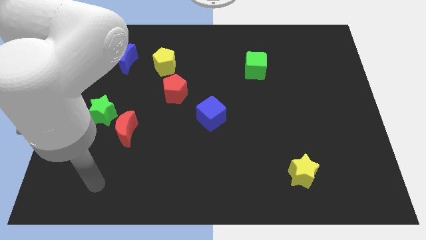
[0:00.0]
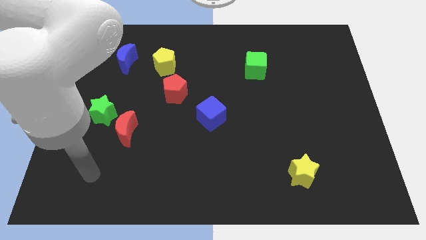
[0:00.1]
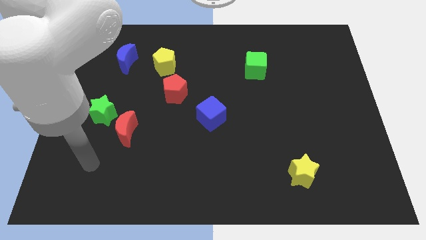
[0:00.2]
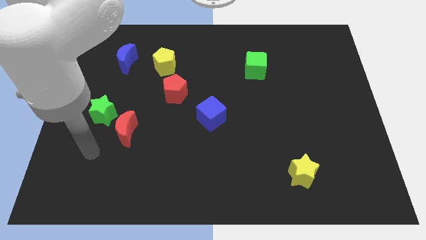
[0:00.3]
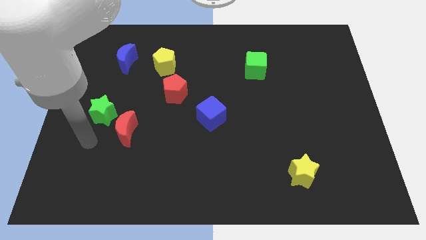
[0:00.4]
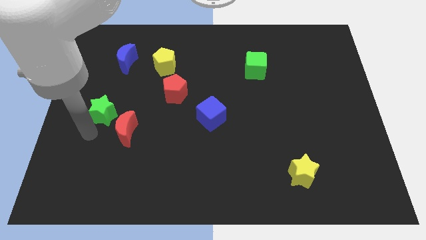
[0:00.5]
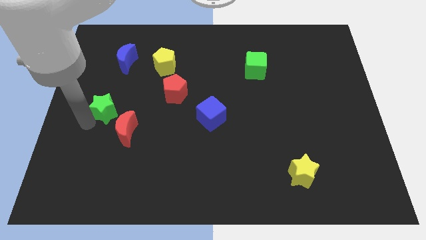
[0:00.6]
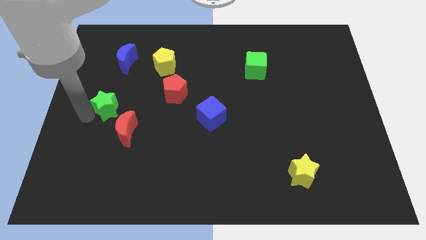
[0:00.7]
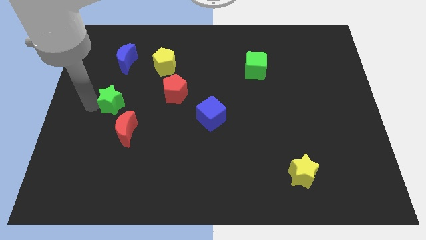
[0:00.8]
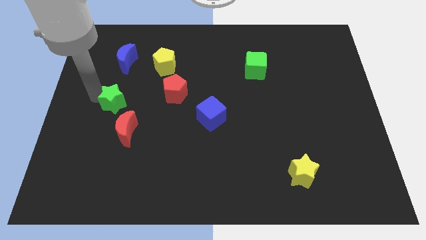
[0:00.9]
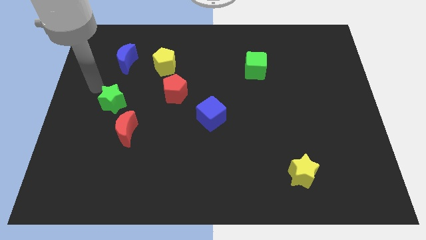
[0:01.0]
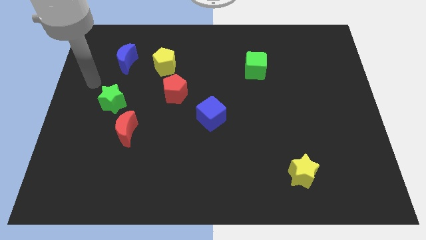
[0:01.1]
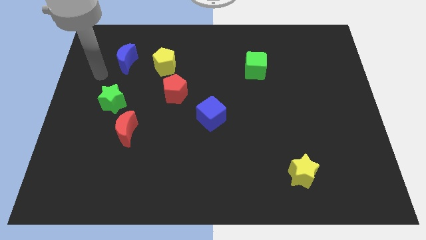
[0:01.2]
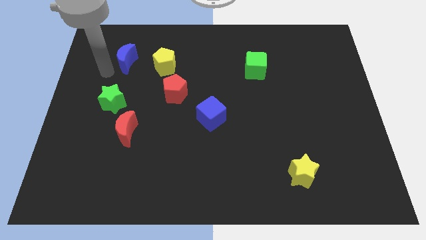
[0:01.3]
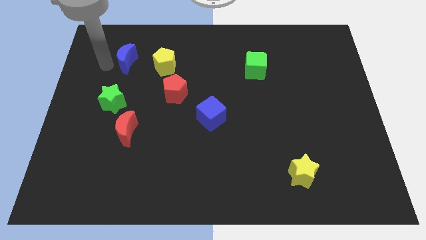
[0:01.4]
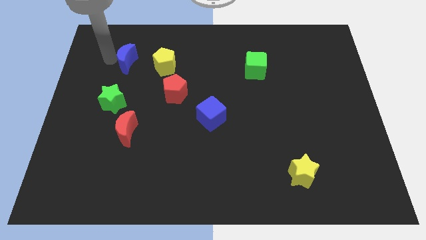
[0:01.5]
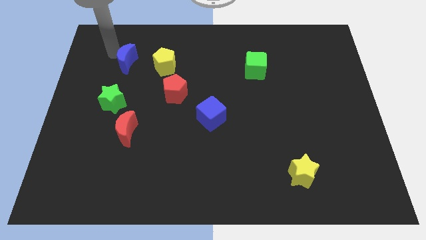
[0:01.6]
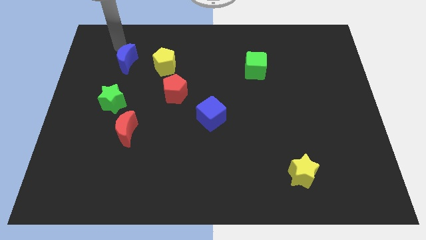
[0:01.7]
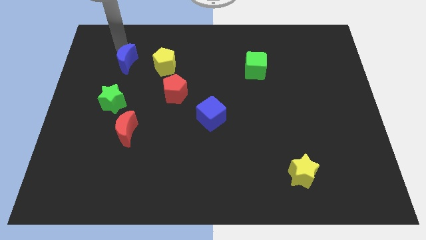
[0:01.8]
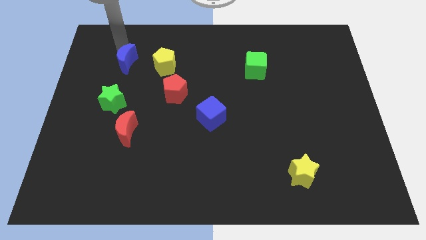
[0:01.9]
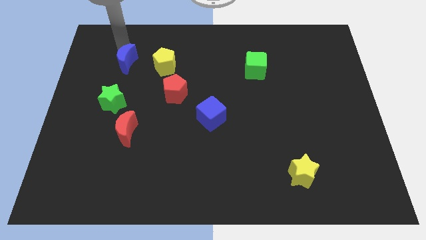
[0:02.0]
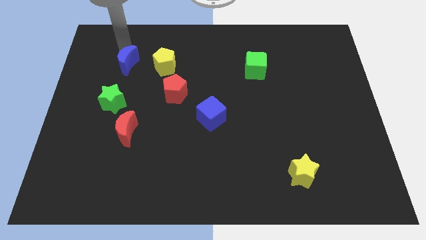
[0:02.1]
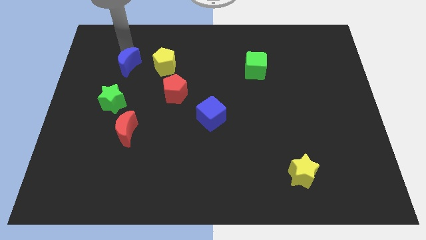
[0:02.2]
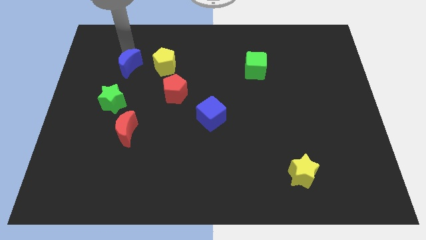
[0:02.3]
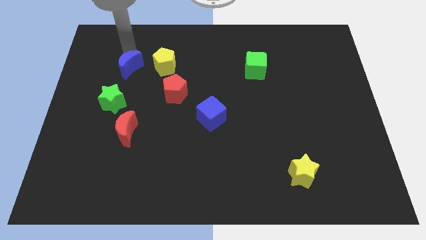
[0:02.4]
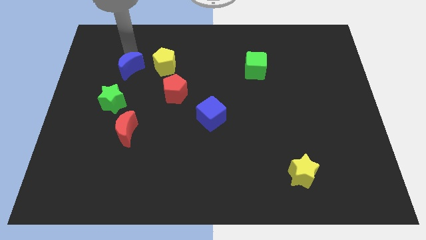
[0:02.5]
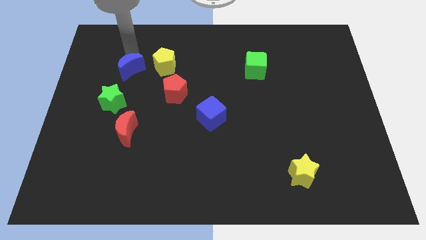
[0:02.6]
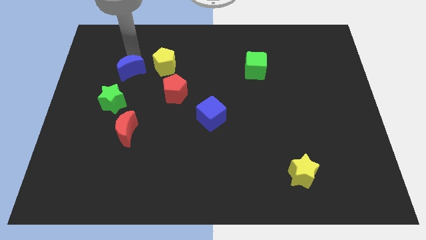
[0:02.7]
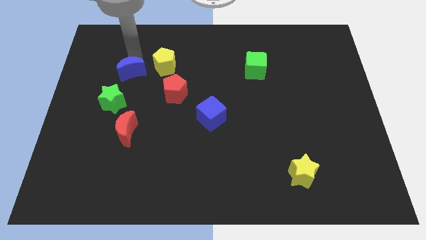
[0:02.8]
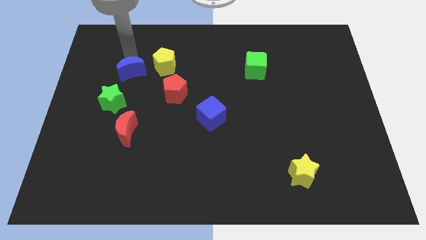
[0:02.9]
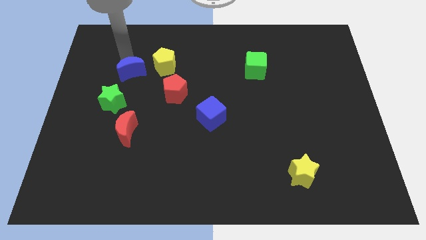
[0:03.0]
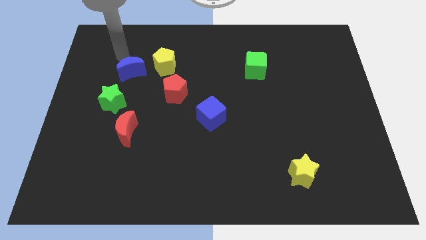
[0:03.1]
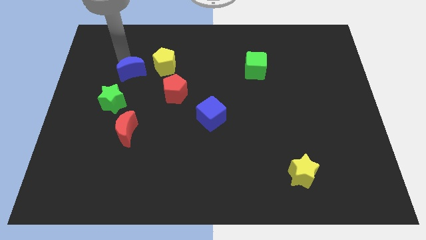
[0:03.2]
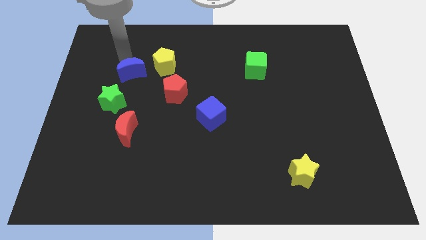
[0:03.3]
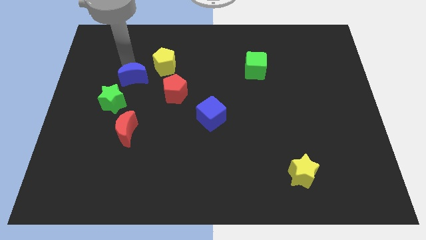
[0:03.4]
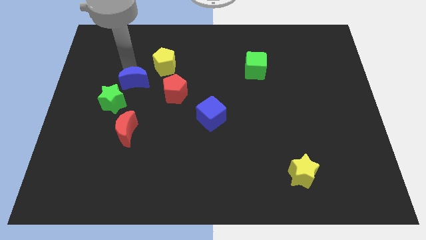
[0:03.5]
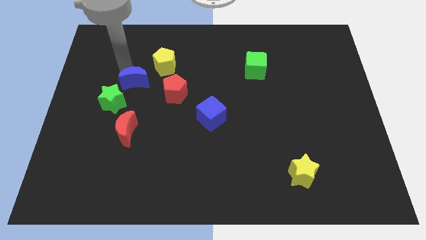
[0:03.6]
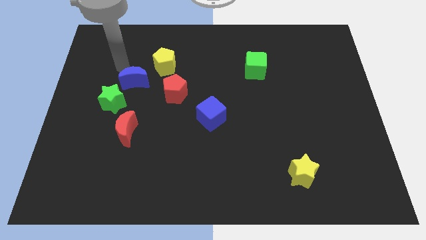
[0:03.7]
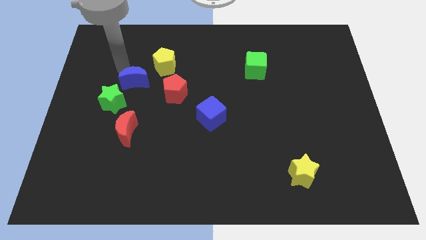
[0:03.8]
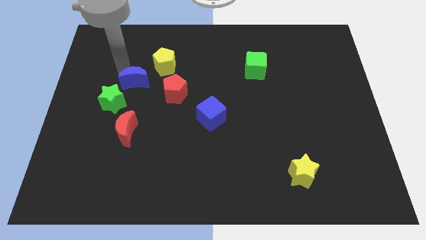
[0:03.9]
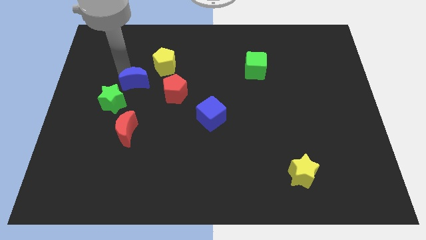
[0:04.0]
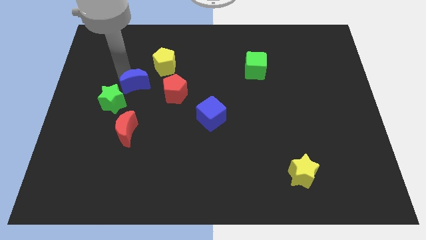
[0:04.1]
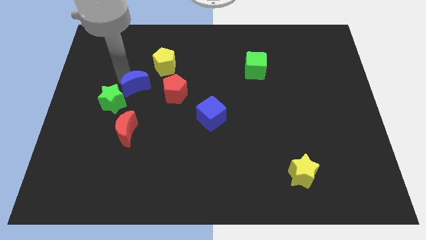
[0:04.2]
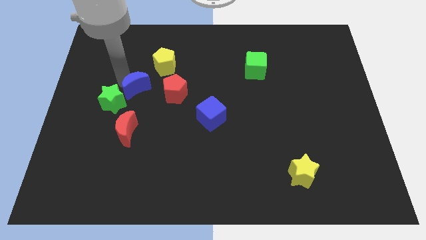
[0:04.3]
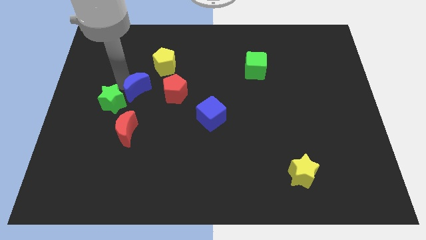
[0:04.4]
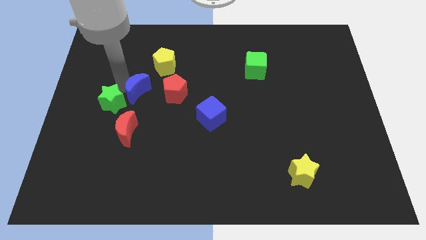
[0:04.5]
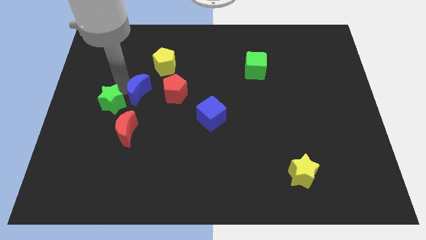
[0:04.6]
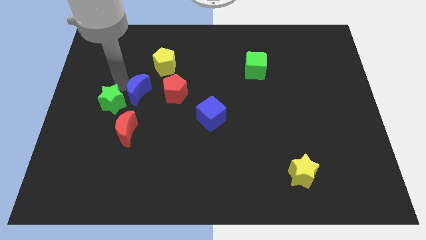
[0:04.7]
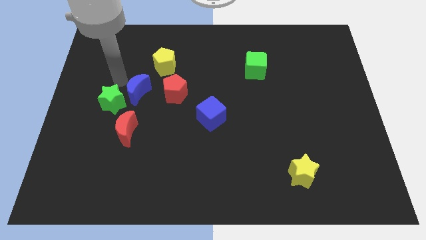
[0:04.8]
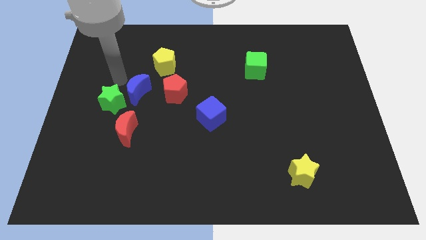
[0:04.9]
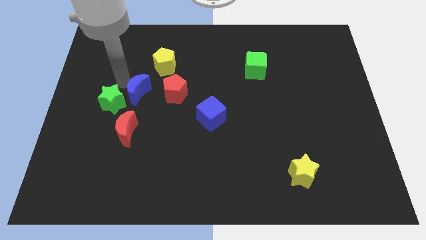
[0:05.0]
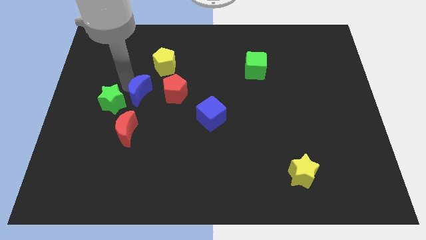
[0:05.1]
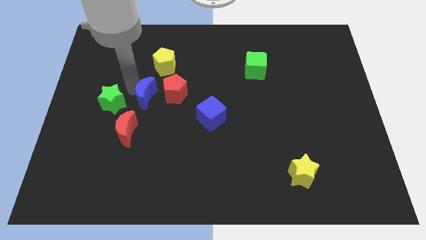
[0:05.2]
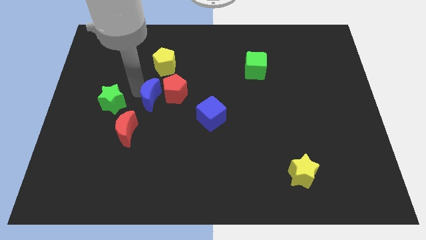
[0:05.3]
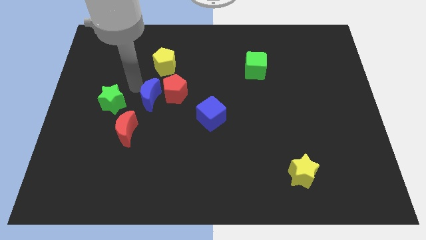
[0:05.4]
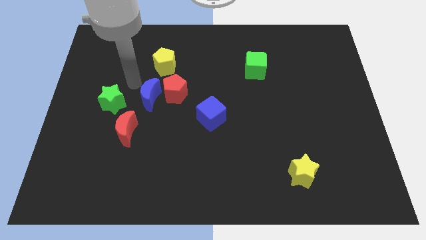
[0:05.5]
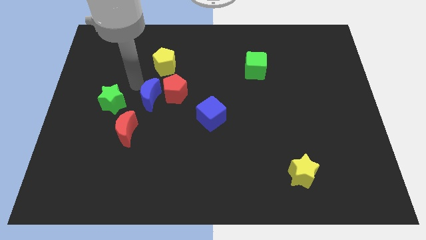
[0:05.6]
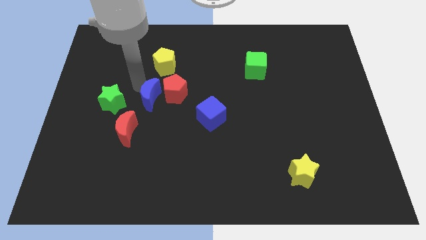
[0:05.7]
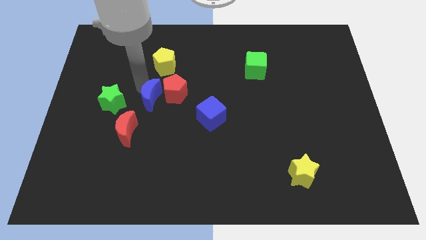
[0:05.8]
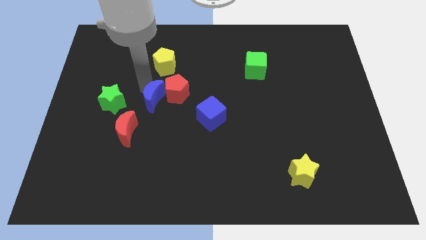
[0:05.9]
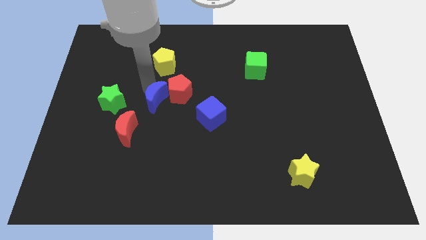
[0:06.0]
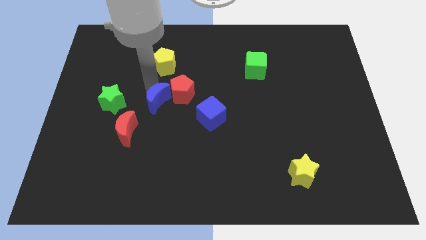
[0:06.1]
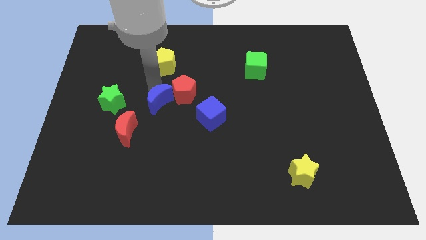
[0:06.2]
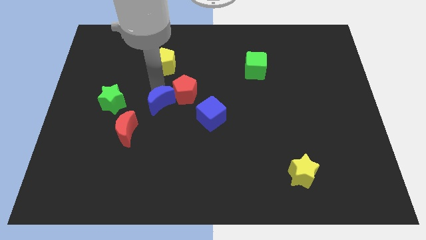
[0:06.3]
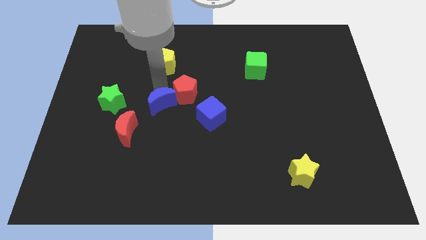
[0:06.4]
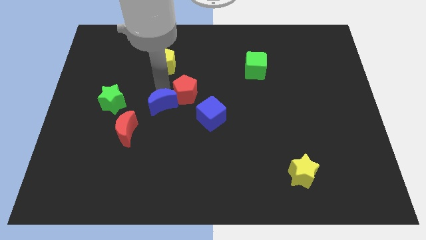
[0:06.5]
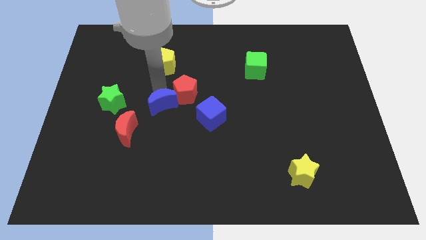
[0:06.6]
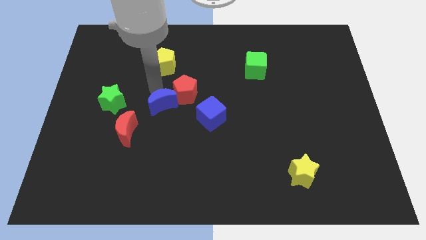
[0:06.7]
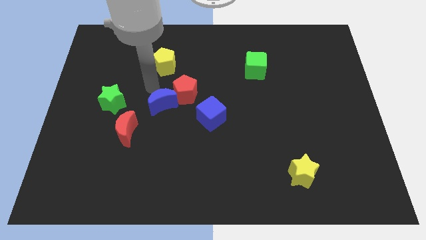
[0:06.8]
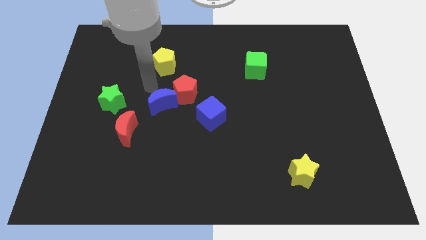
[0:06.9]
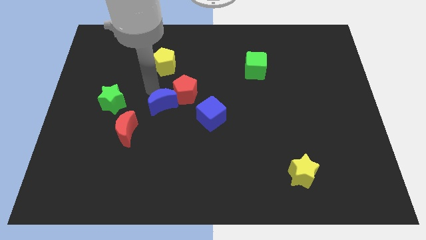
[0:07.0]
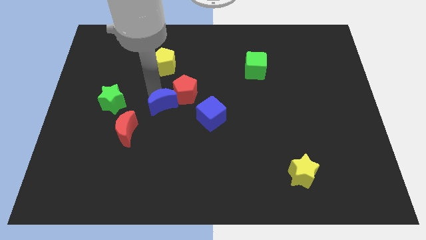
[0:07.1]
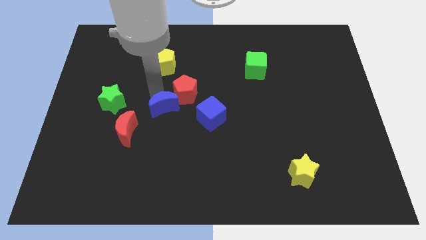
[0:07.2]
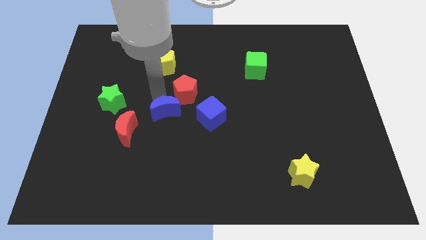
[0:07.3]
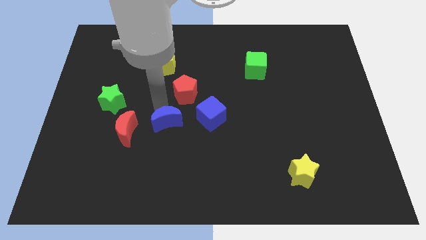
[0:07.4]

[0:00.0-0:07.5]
push the blue moon downwards and right

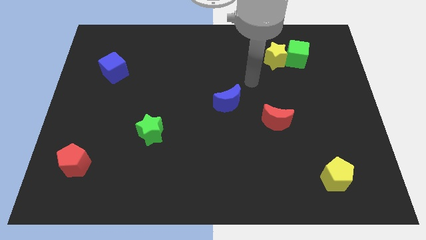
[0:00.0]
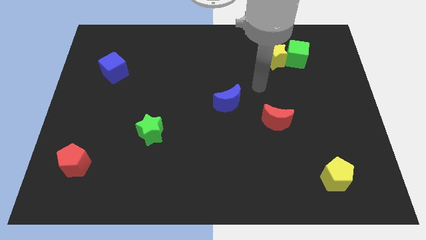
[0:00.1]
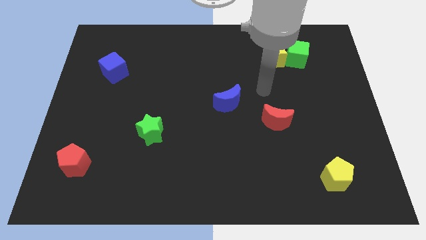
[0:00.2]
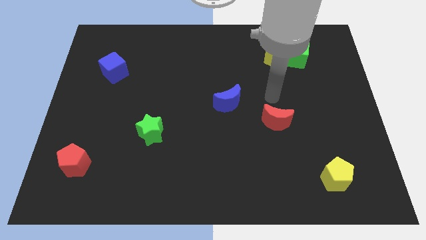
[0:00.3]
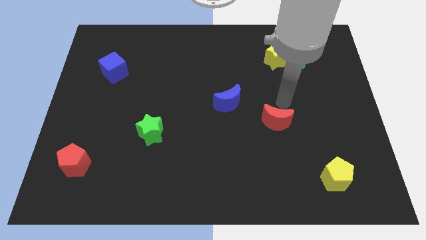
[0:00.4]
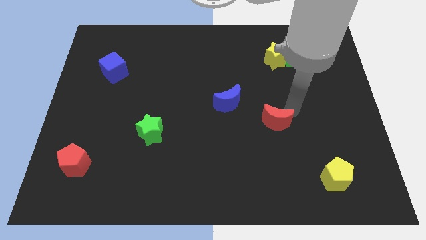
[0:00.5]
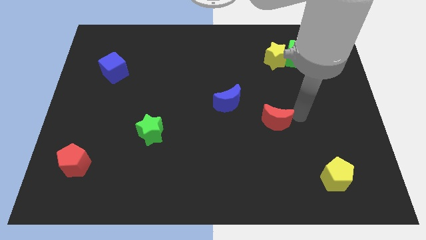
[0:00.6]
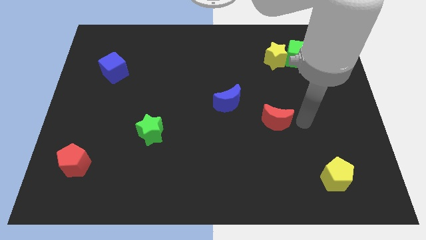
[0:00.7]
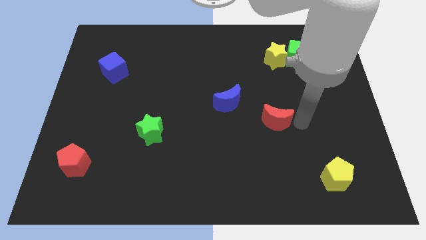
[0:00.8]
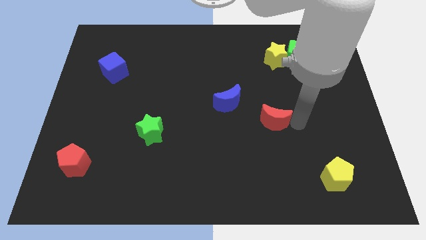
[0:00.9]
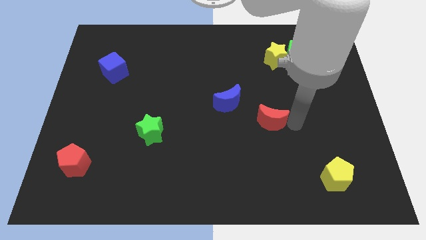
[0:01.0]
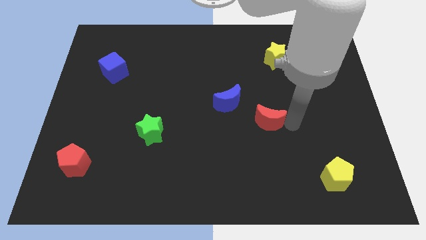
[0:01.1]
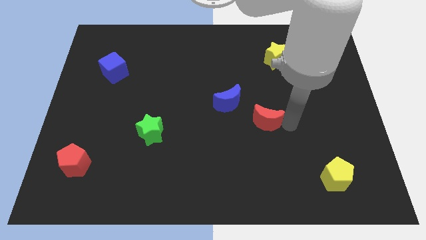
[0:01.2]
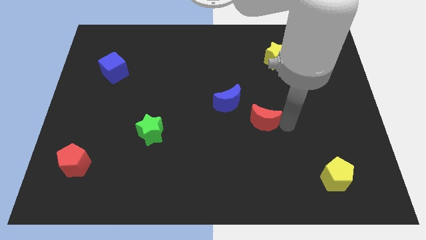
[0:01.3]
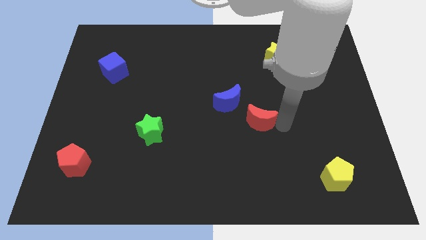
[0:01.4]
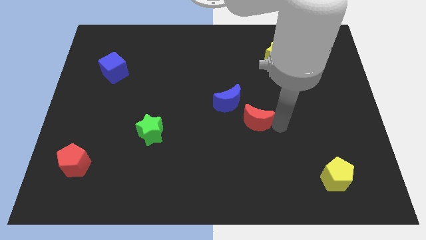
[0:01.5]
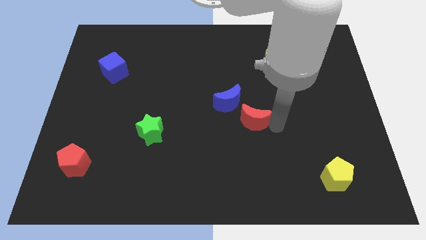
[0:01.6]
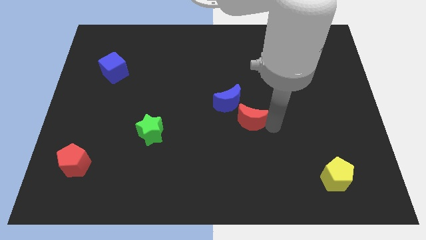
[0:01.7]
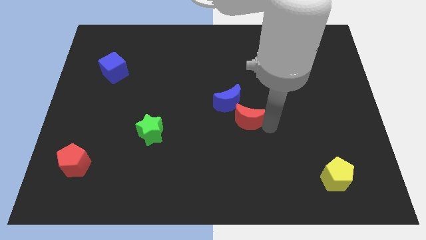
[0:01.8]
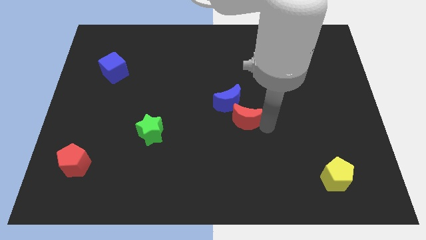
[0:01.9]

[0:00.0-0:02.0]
push the red moon a bit left
